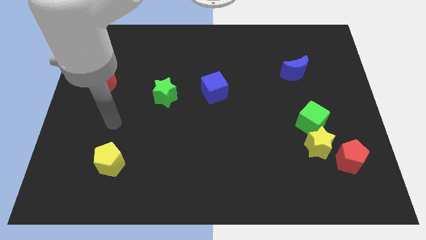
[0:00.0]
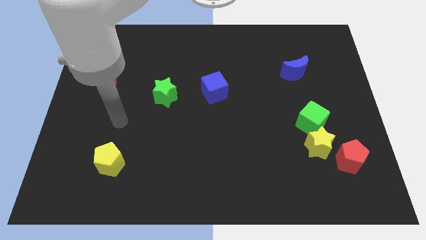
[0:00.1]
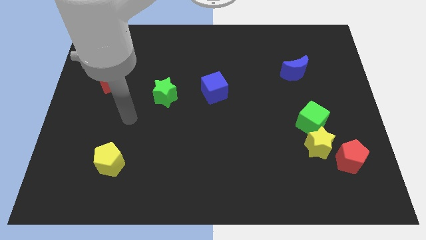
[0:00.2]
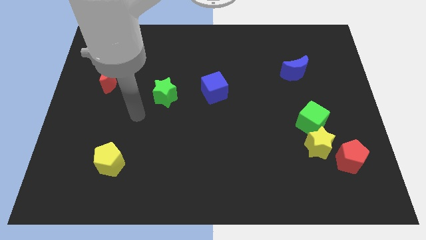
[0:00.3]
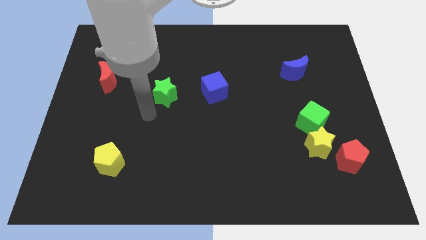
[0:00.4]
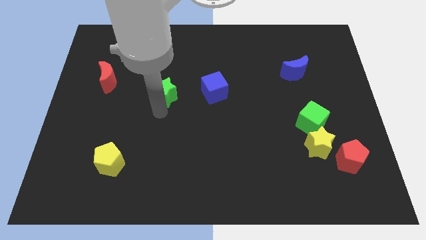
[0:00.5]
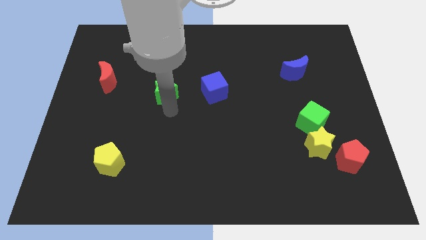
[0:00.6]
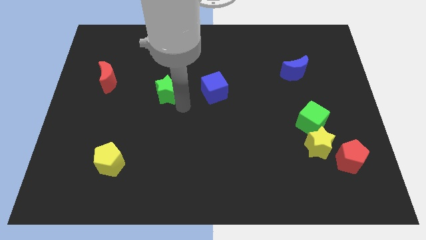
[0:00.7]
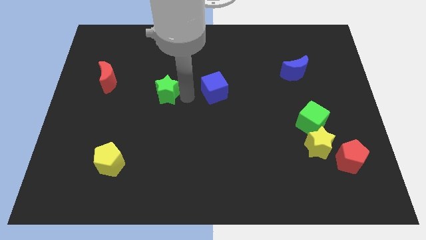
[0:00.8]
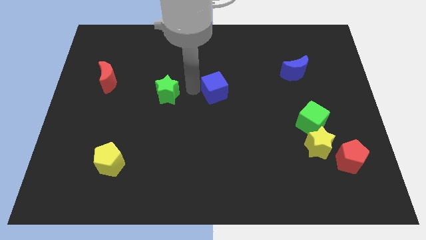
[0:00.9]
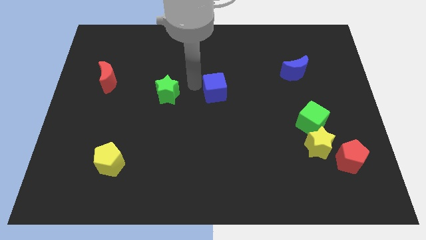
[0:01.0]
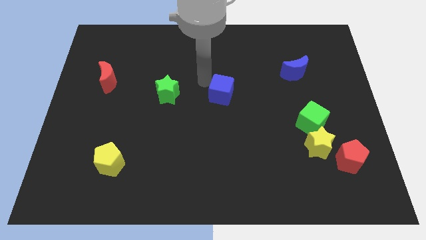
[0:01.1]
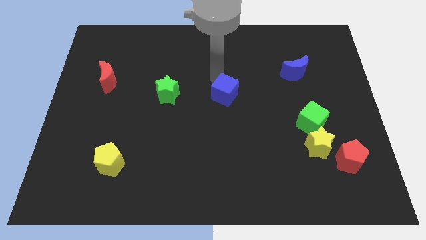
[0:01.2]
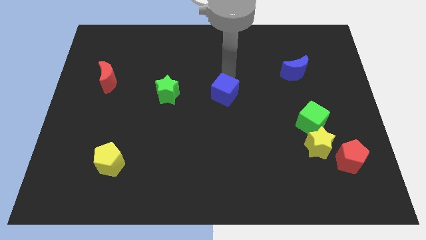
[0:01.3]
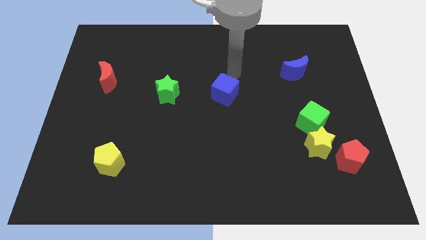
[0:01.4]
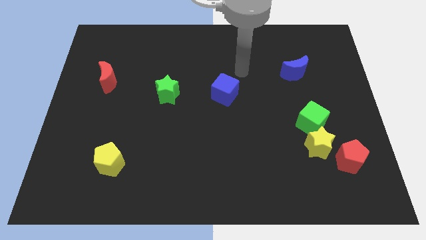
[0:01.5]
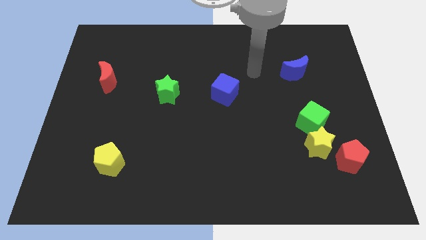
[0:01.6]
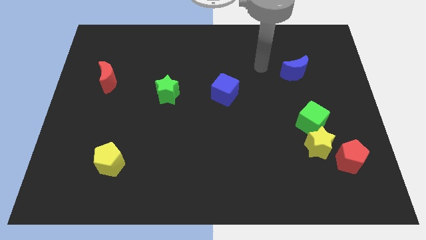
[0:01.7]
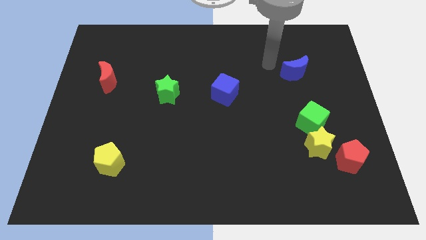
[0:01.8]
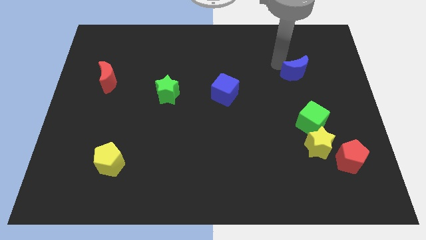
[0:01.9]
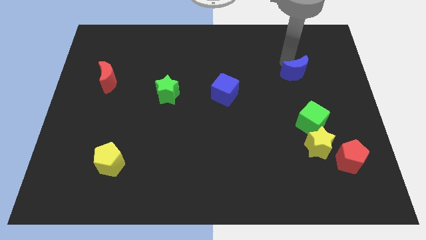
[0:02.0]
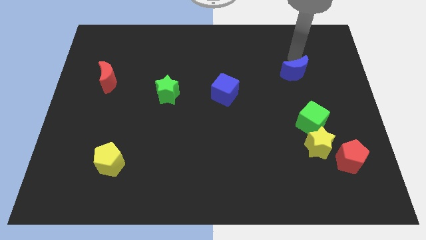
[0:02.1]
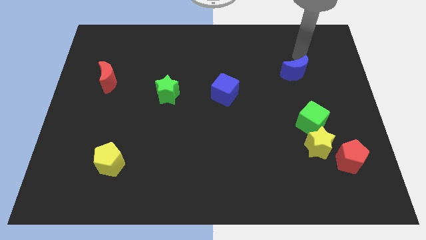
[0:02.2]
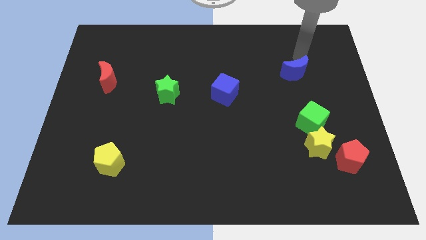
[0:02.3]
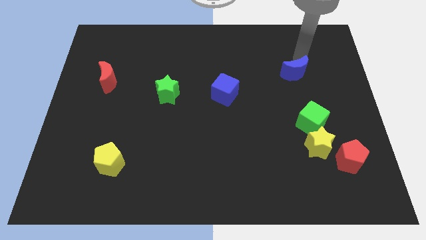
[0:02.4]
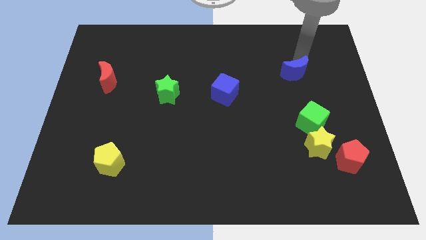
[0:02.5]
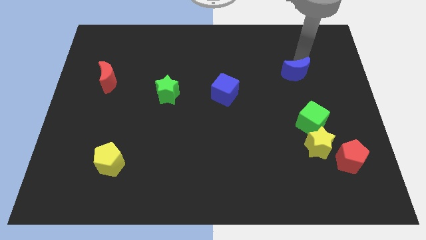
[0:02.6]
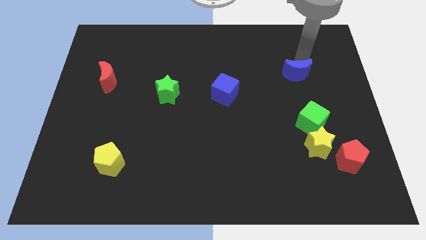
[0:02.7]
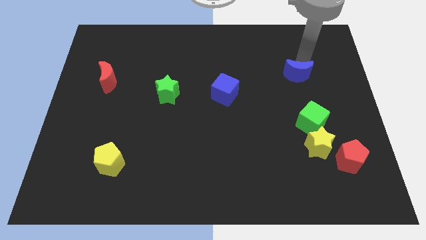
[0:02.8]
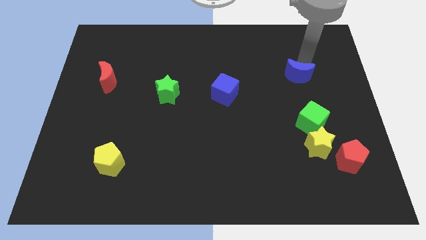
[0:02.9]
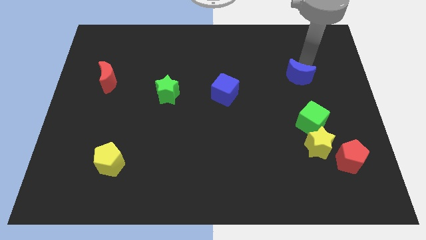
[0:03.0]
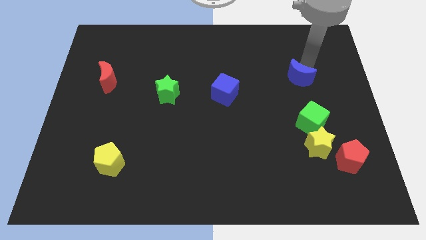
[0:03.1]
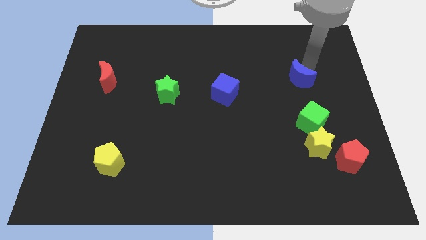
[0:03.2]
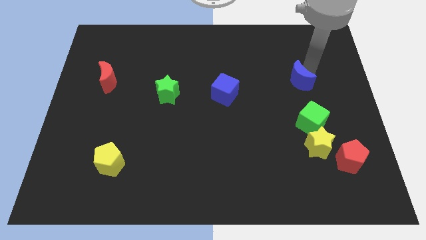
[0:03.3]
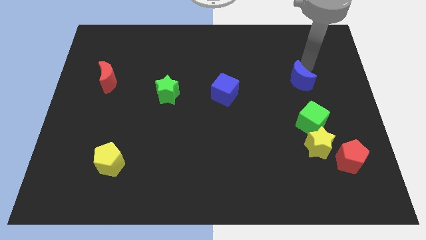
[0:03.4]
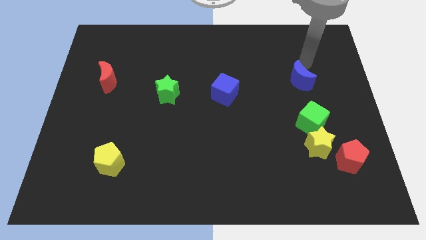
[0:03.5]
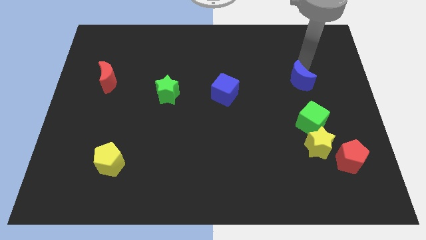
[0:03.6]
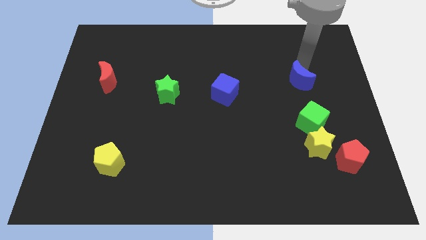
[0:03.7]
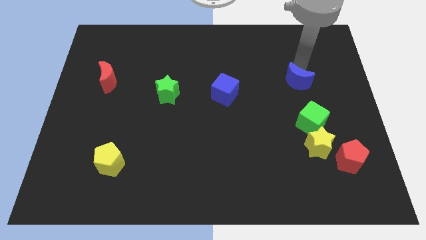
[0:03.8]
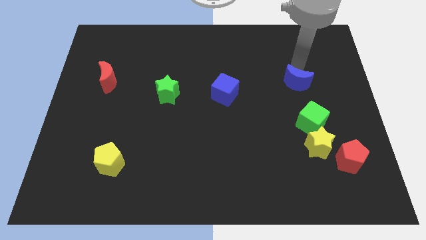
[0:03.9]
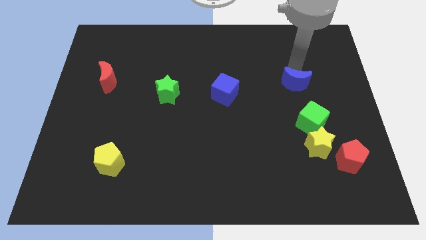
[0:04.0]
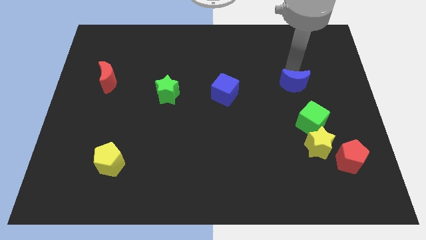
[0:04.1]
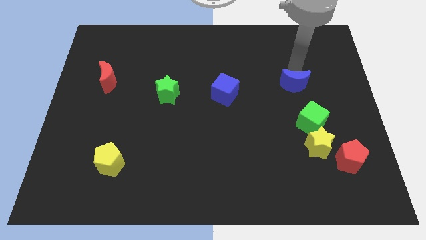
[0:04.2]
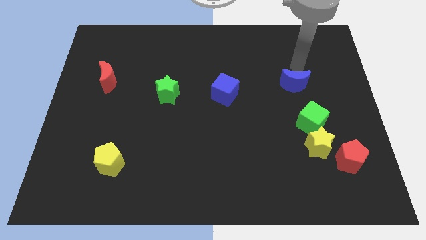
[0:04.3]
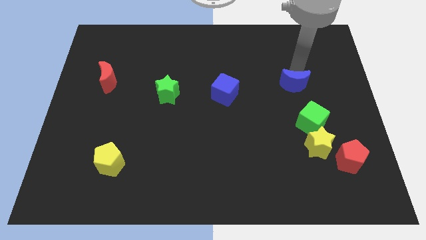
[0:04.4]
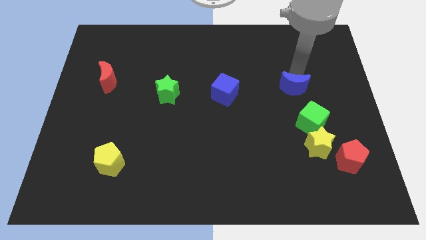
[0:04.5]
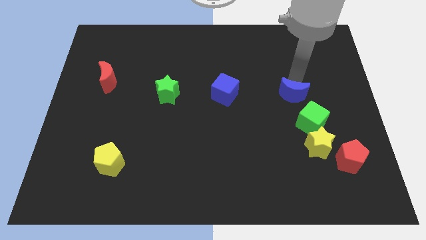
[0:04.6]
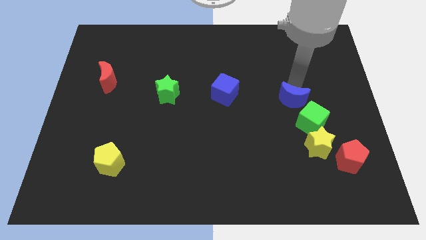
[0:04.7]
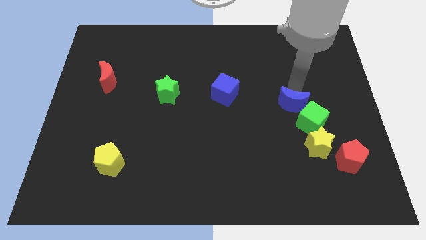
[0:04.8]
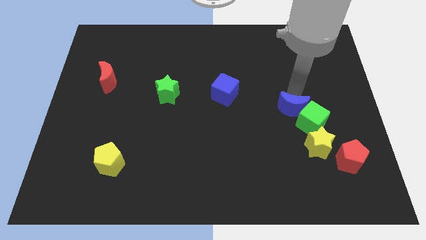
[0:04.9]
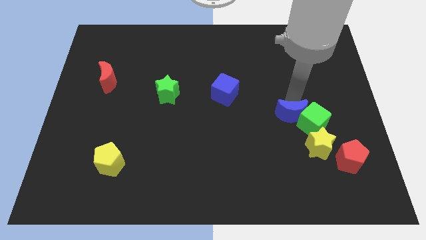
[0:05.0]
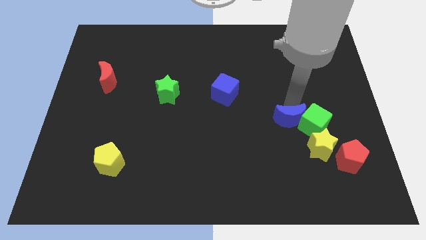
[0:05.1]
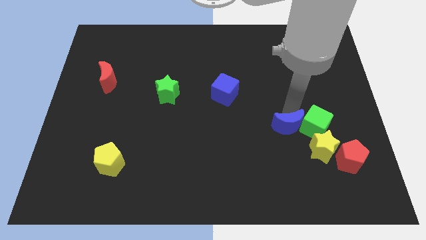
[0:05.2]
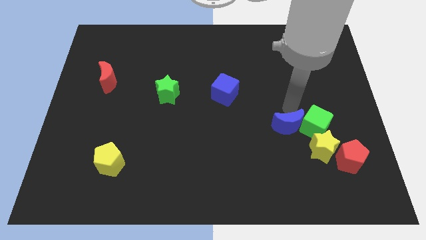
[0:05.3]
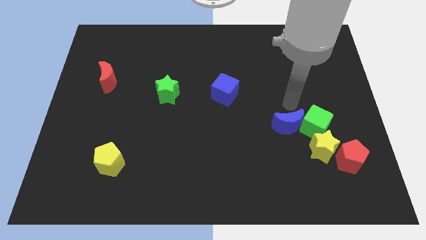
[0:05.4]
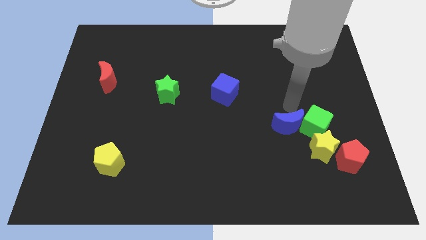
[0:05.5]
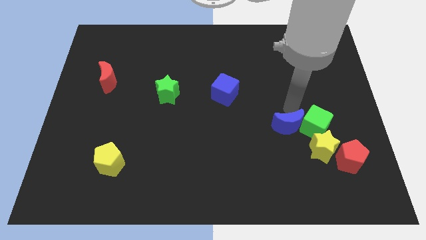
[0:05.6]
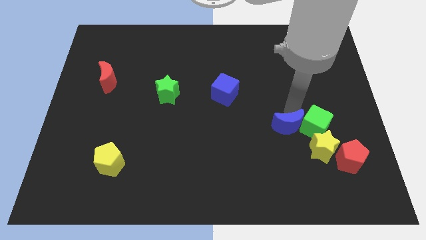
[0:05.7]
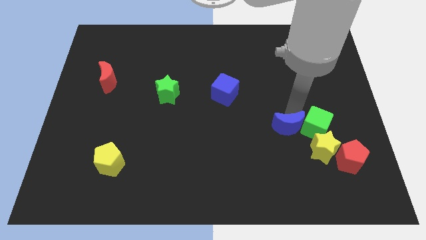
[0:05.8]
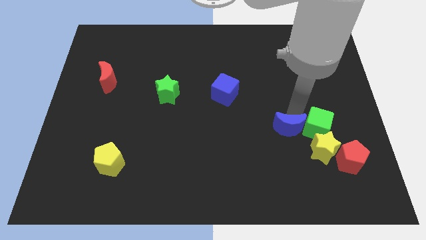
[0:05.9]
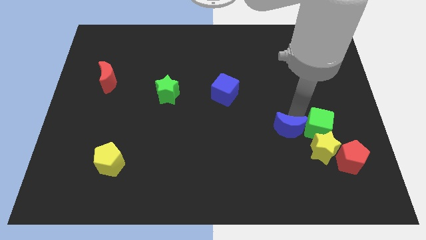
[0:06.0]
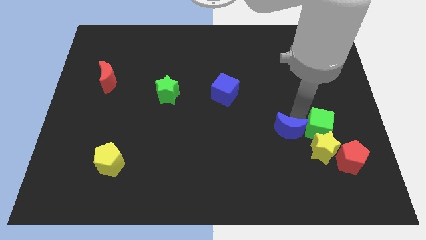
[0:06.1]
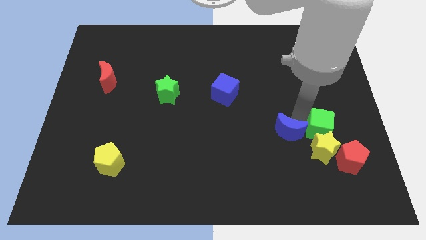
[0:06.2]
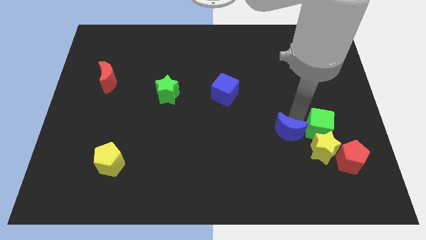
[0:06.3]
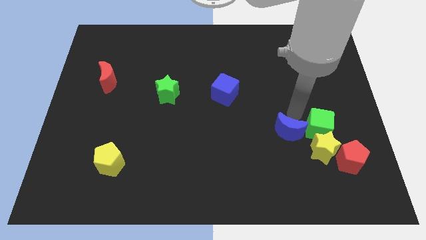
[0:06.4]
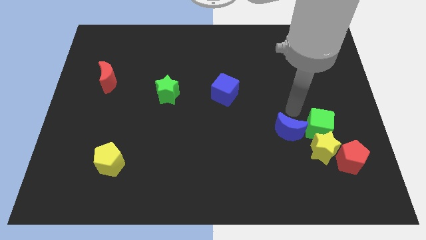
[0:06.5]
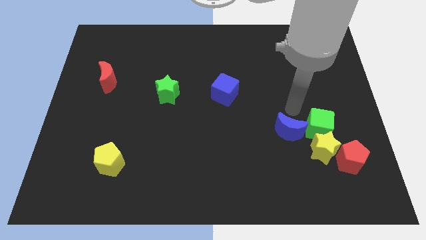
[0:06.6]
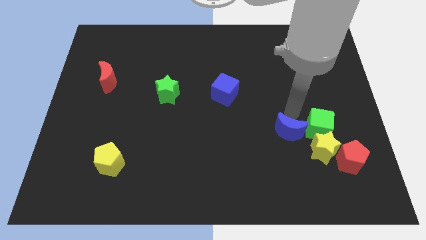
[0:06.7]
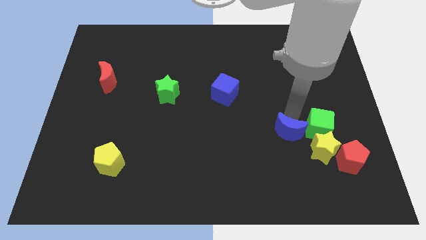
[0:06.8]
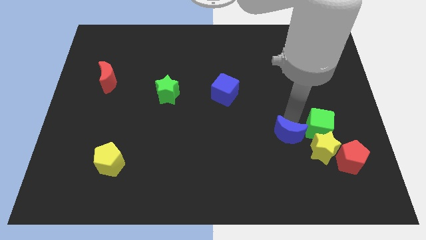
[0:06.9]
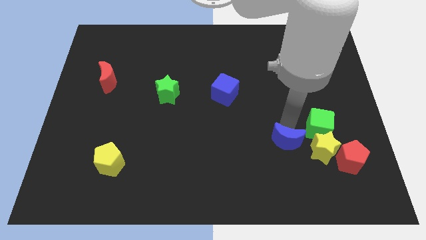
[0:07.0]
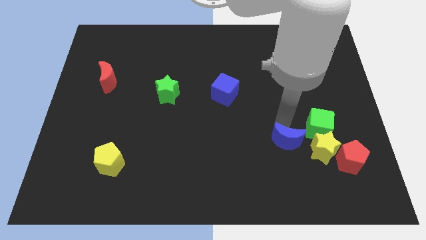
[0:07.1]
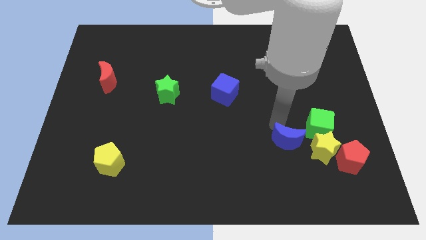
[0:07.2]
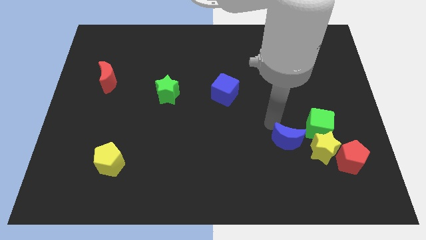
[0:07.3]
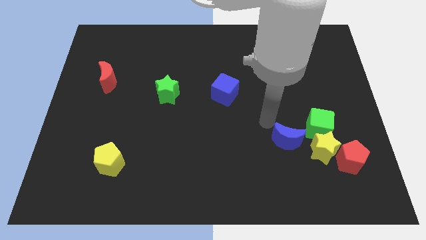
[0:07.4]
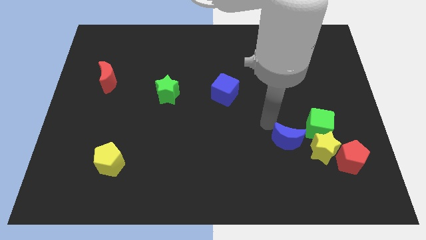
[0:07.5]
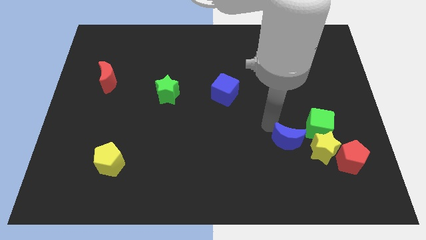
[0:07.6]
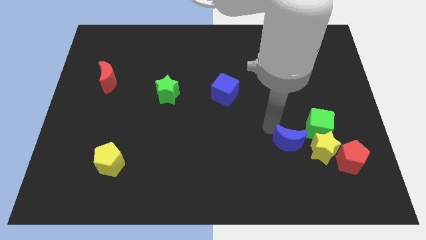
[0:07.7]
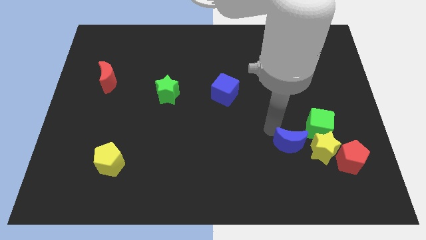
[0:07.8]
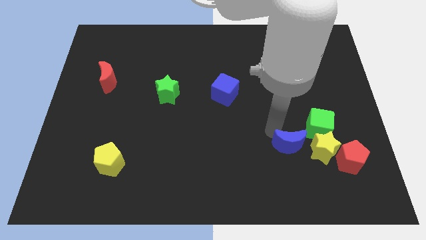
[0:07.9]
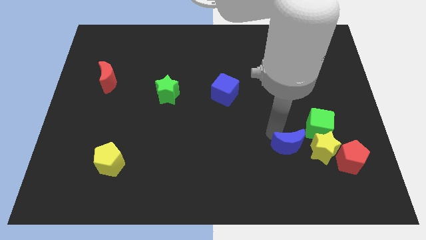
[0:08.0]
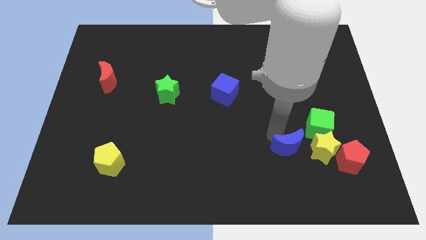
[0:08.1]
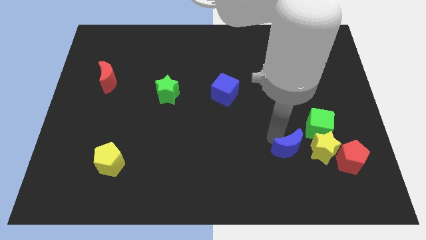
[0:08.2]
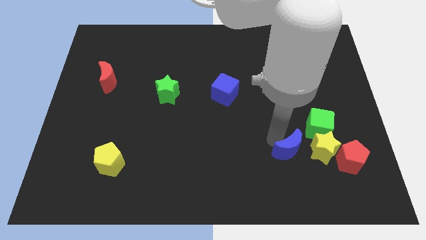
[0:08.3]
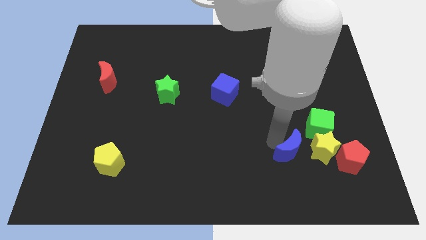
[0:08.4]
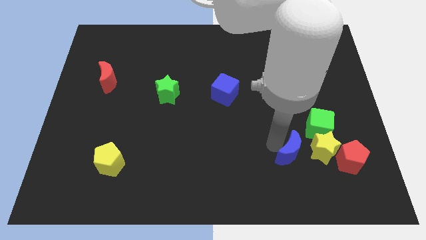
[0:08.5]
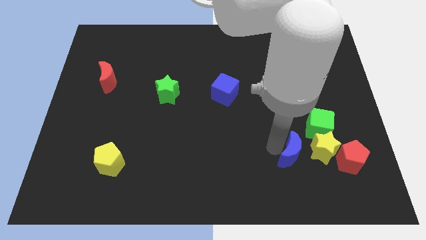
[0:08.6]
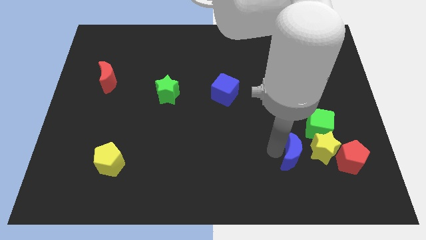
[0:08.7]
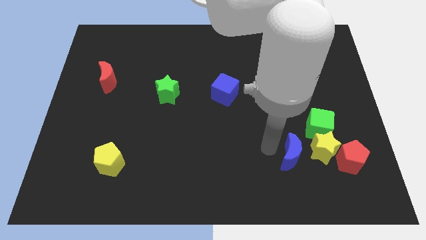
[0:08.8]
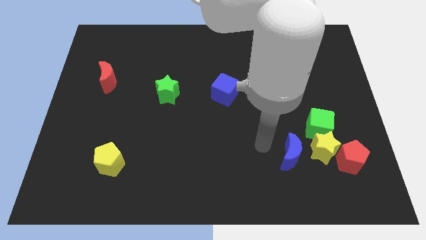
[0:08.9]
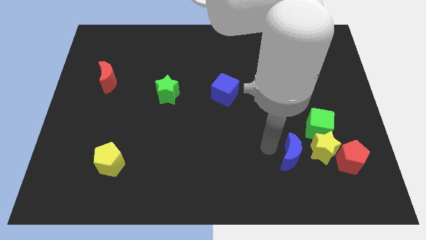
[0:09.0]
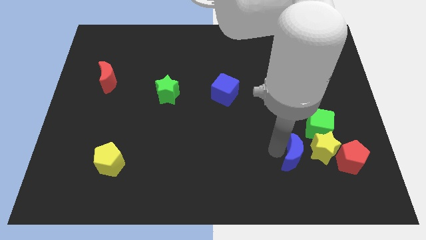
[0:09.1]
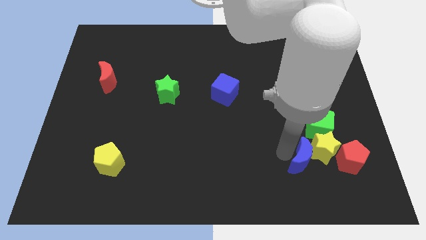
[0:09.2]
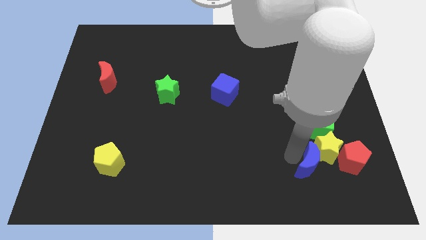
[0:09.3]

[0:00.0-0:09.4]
slide the blue moon to the bottom of the green cube
